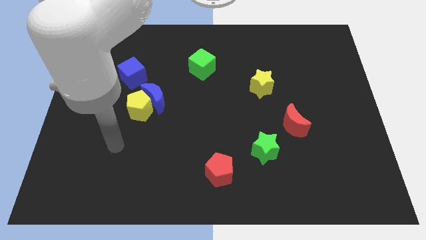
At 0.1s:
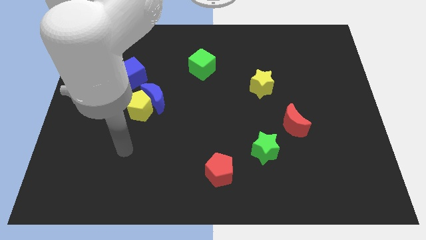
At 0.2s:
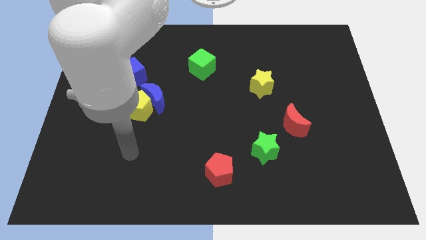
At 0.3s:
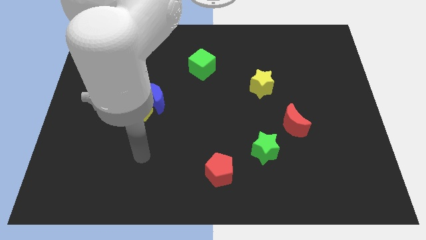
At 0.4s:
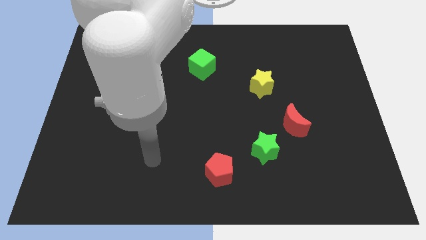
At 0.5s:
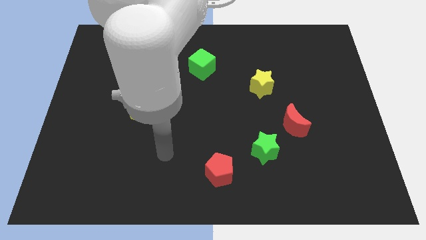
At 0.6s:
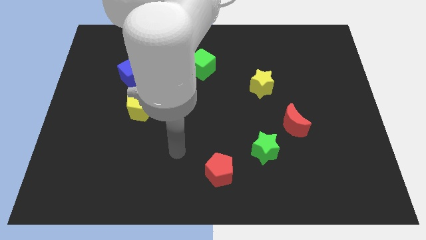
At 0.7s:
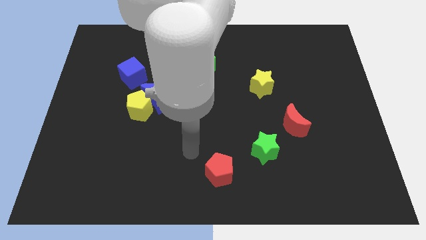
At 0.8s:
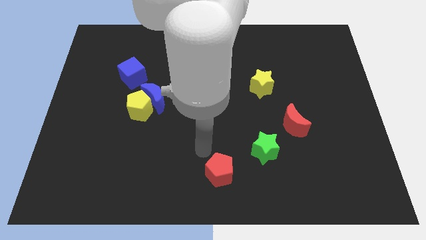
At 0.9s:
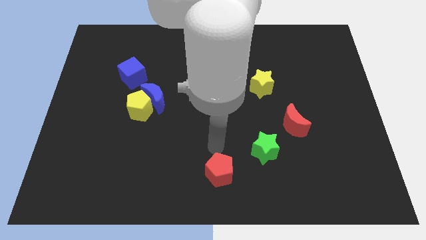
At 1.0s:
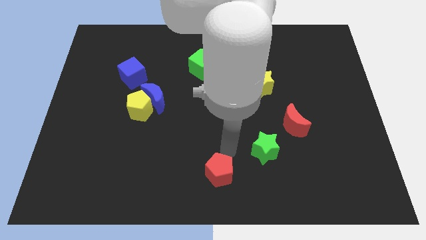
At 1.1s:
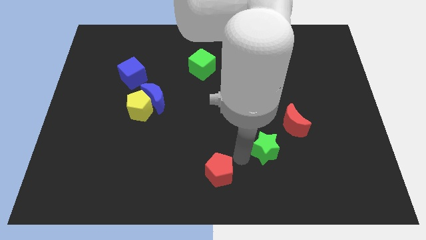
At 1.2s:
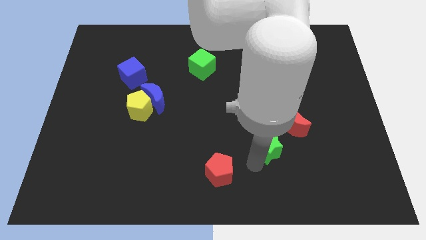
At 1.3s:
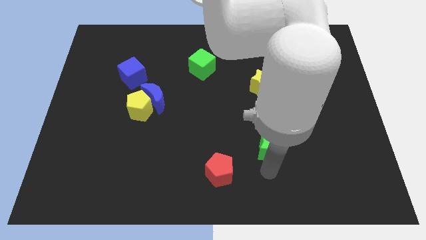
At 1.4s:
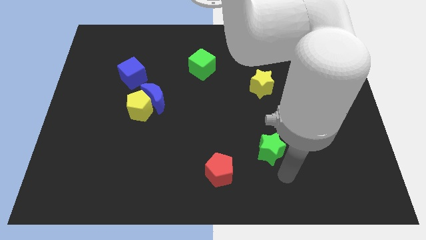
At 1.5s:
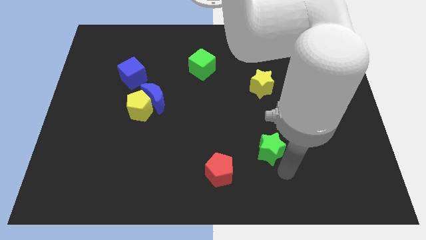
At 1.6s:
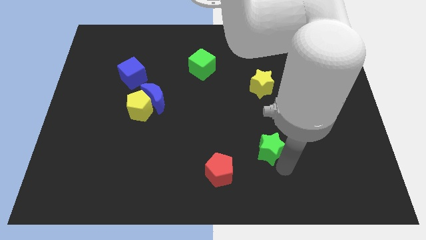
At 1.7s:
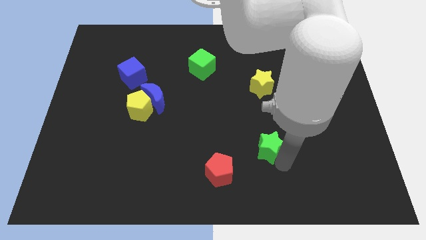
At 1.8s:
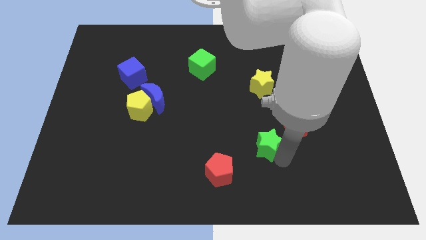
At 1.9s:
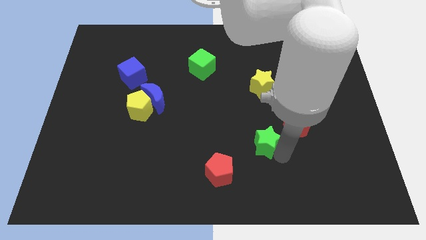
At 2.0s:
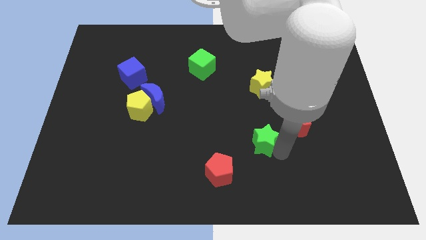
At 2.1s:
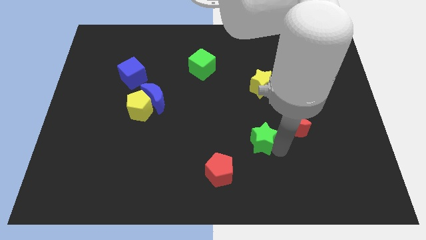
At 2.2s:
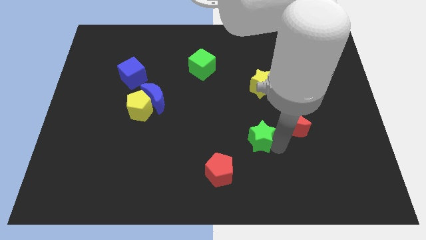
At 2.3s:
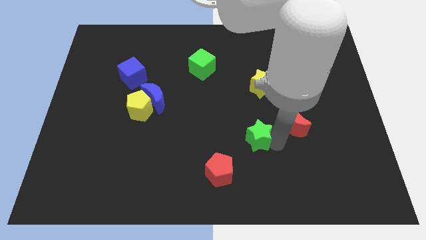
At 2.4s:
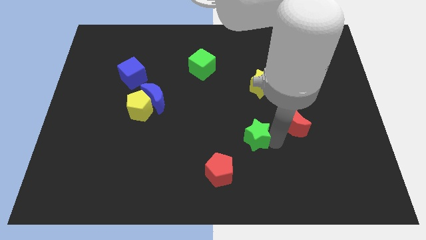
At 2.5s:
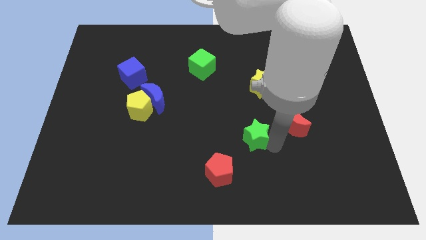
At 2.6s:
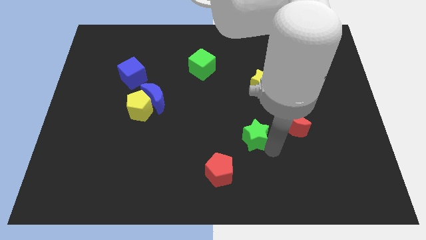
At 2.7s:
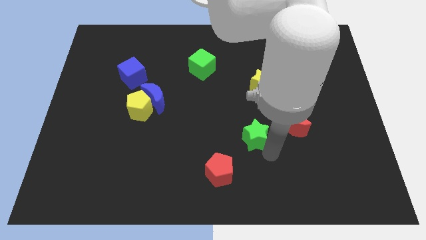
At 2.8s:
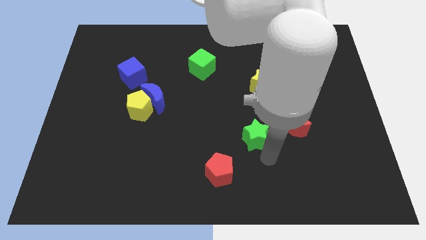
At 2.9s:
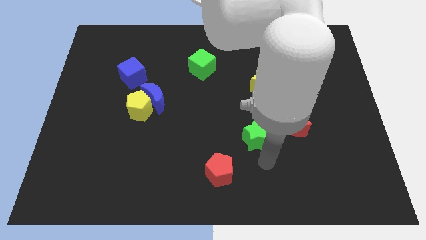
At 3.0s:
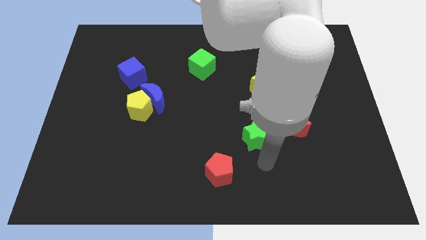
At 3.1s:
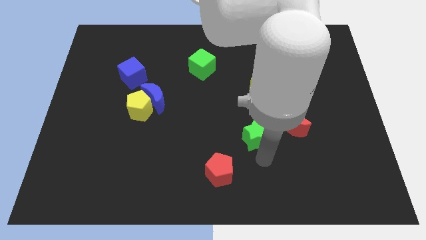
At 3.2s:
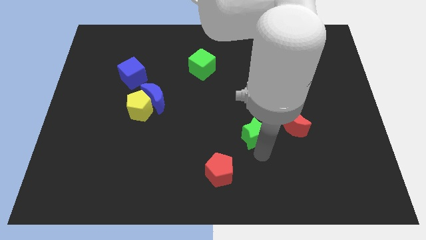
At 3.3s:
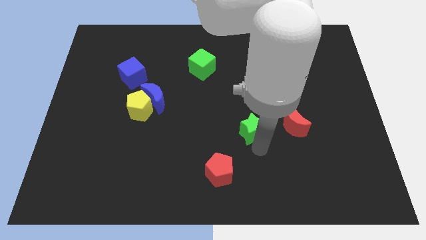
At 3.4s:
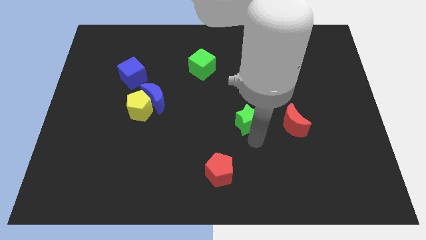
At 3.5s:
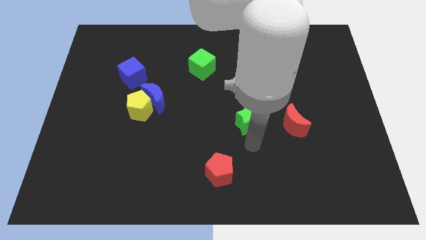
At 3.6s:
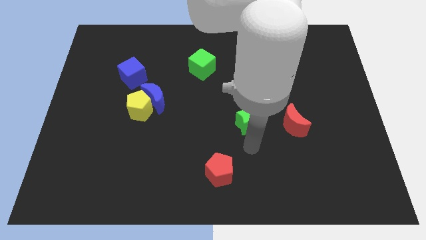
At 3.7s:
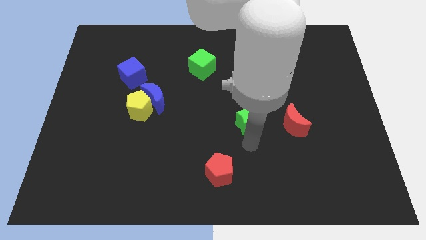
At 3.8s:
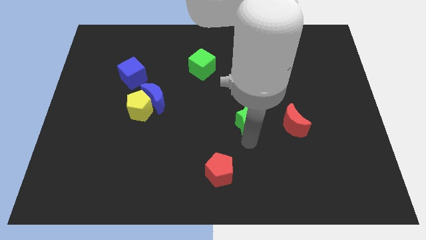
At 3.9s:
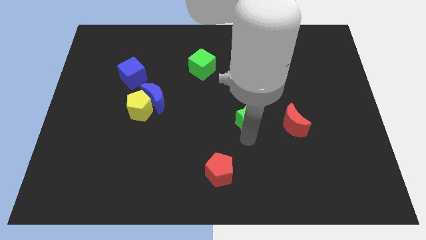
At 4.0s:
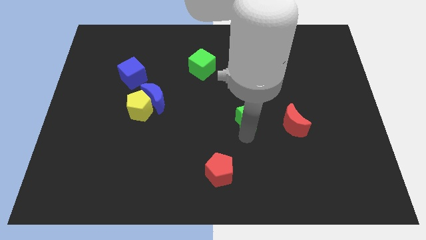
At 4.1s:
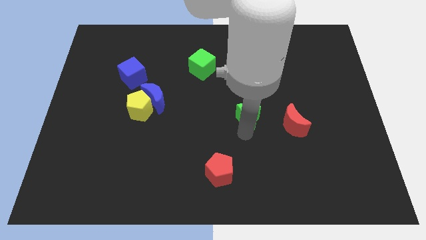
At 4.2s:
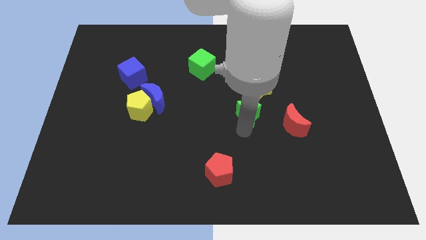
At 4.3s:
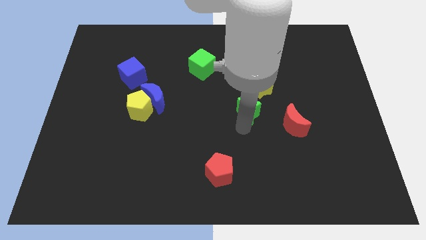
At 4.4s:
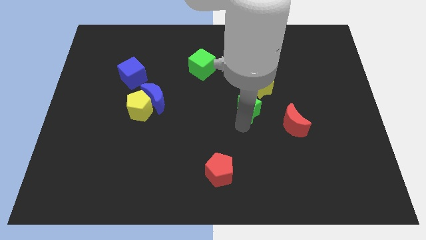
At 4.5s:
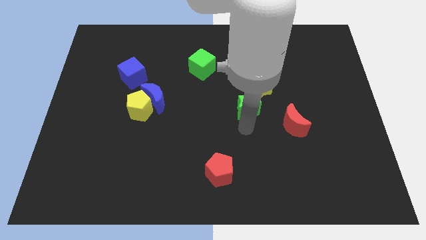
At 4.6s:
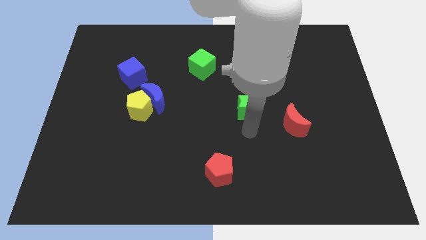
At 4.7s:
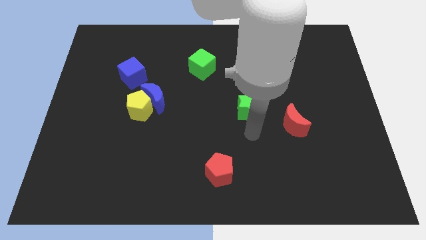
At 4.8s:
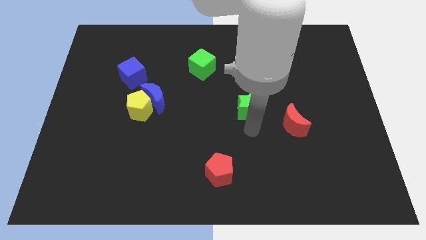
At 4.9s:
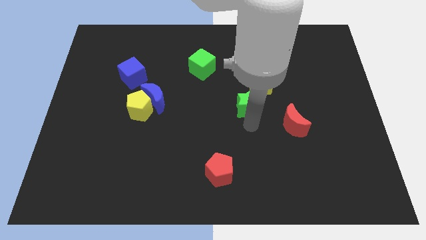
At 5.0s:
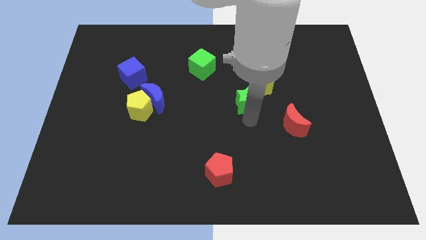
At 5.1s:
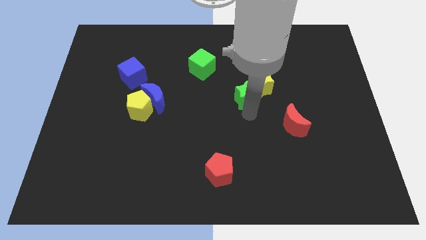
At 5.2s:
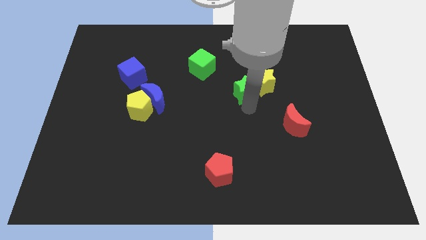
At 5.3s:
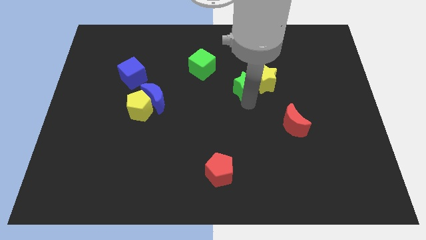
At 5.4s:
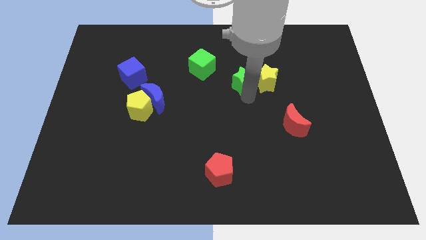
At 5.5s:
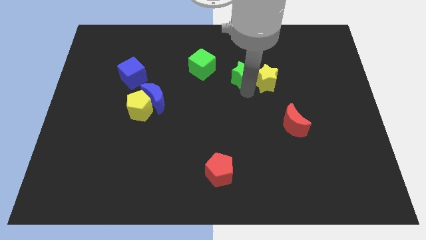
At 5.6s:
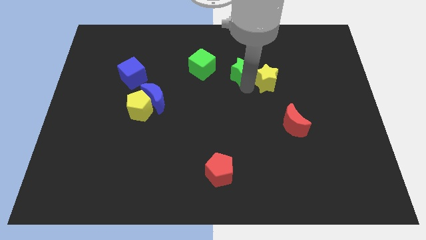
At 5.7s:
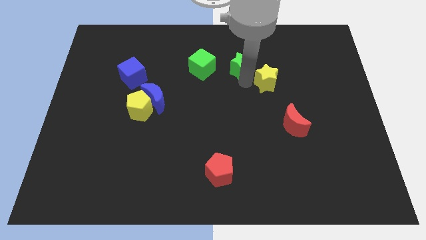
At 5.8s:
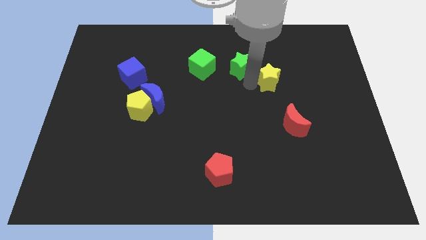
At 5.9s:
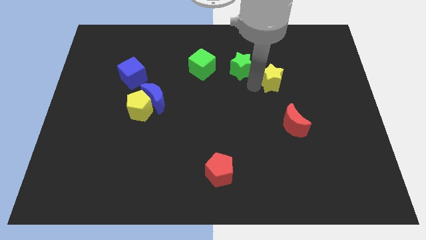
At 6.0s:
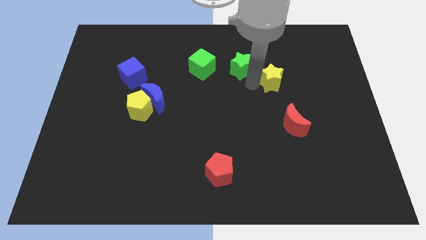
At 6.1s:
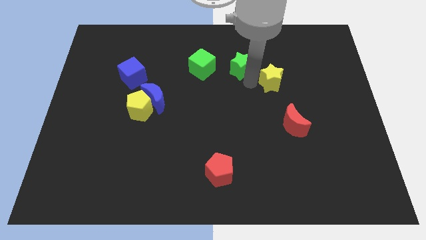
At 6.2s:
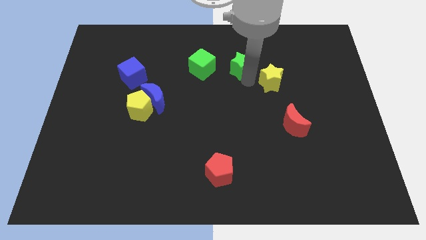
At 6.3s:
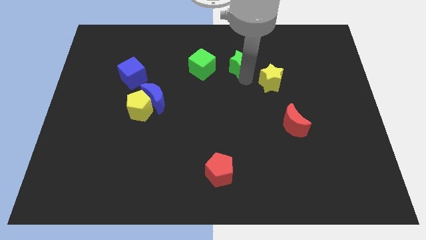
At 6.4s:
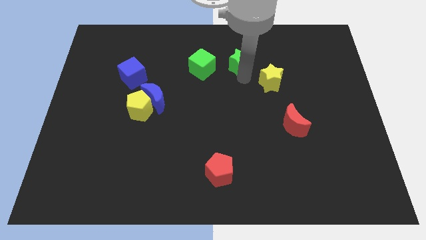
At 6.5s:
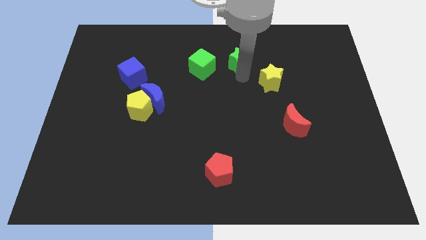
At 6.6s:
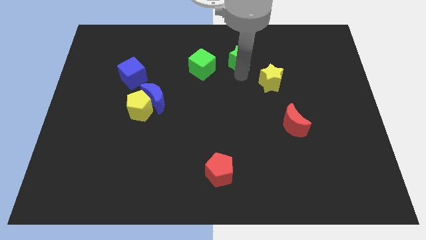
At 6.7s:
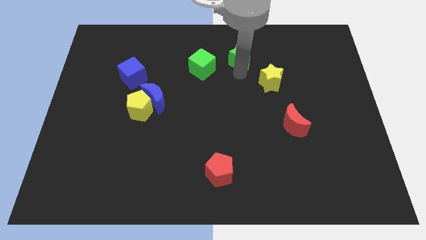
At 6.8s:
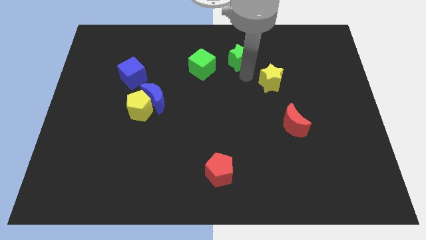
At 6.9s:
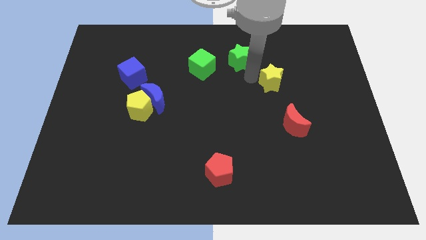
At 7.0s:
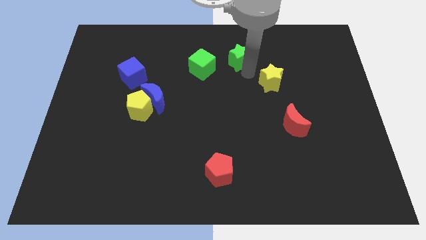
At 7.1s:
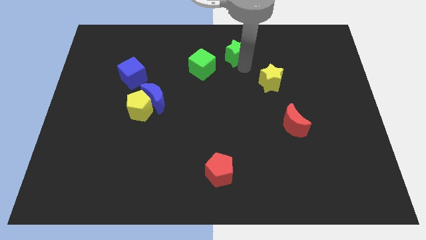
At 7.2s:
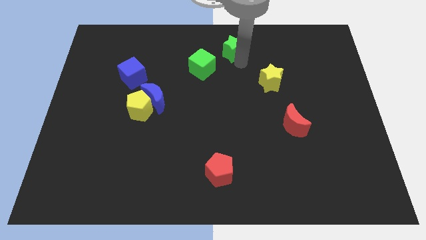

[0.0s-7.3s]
slide the green star to the top side
